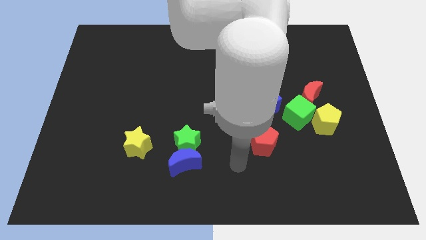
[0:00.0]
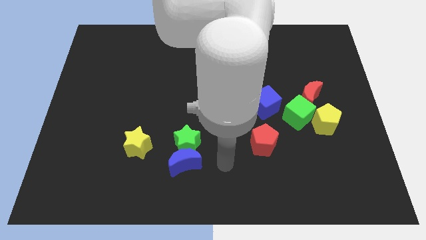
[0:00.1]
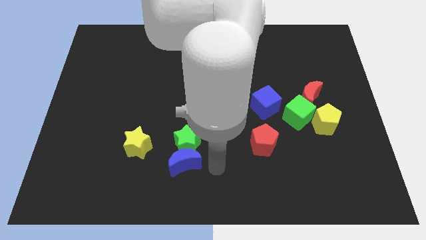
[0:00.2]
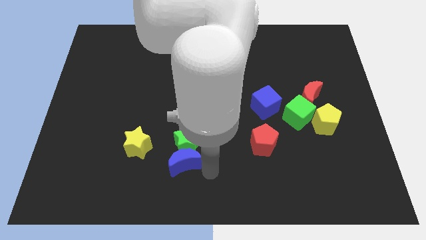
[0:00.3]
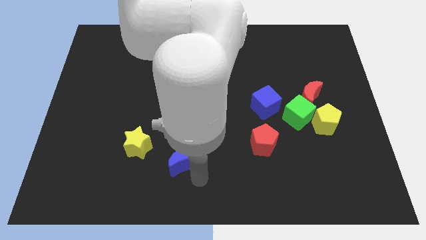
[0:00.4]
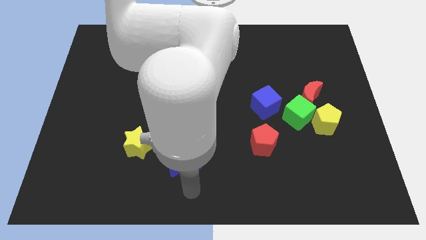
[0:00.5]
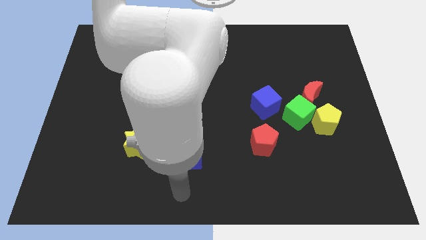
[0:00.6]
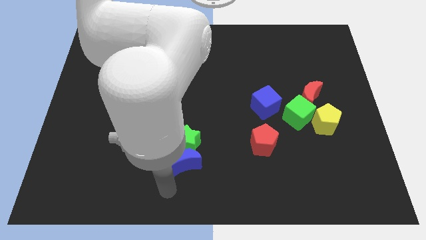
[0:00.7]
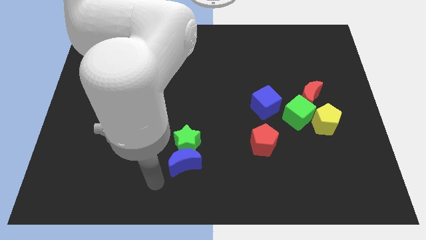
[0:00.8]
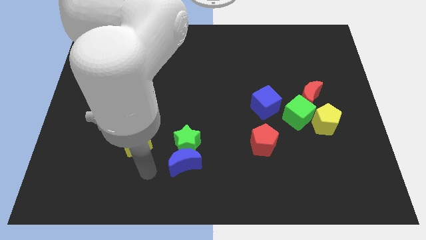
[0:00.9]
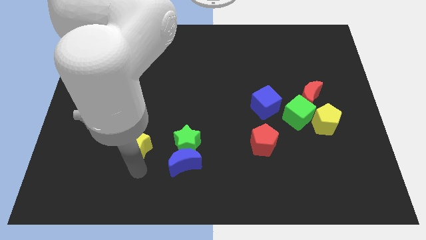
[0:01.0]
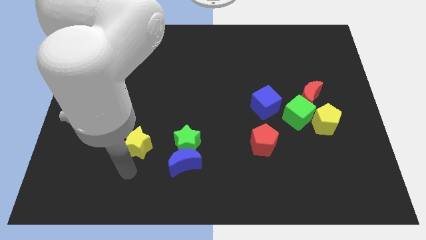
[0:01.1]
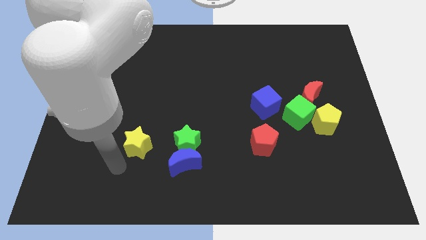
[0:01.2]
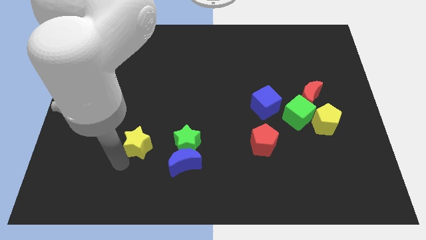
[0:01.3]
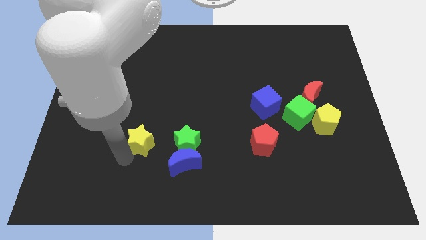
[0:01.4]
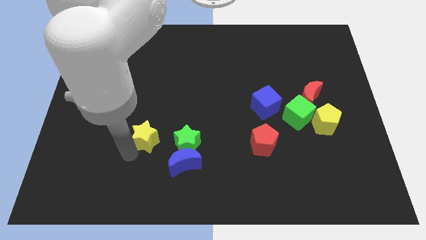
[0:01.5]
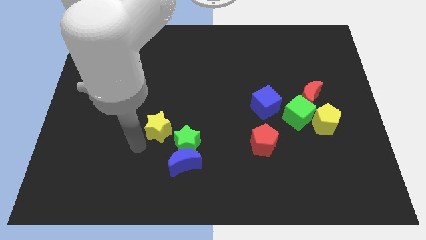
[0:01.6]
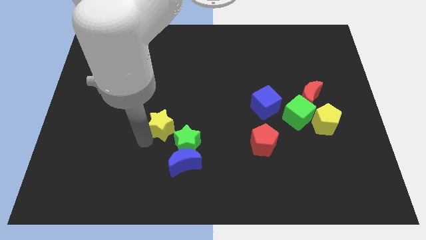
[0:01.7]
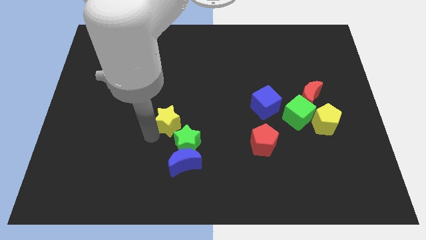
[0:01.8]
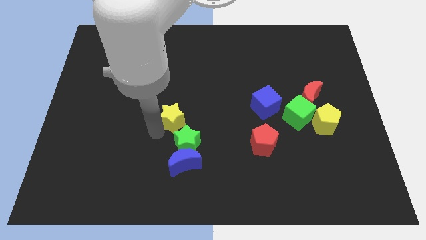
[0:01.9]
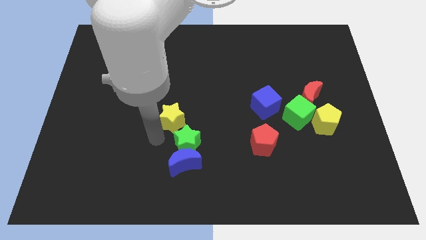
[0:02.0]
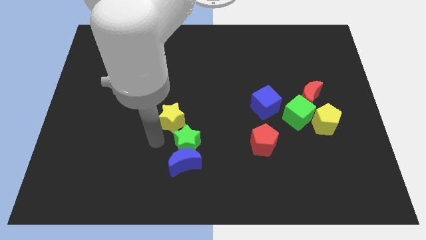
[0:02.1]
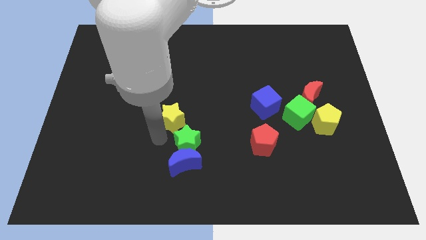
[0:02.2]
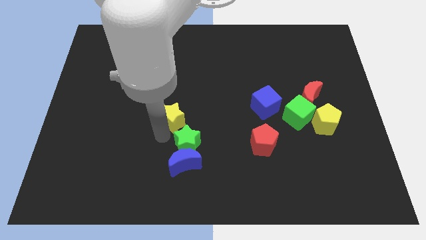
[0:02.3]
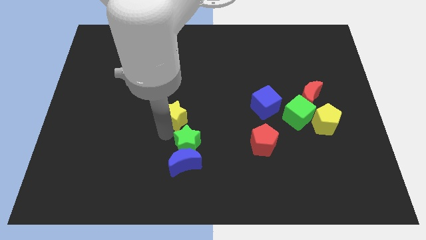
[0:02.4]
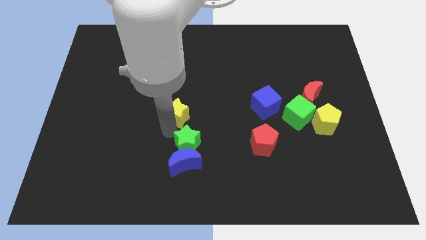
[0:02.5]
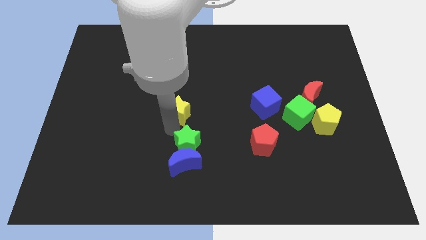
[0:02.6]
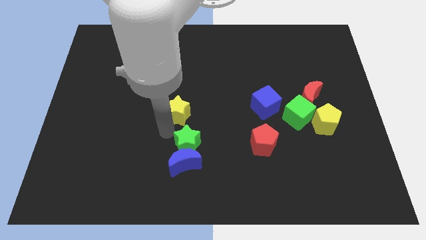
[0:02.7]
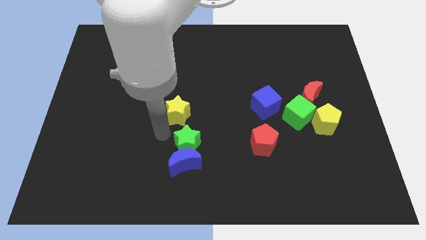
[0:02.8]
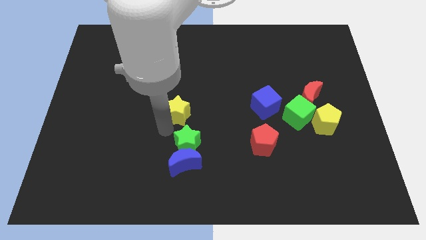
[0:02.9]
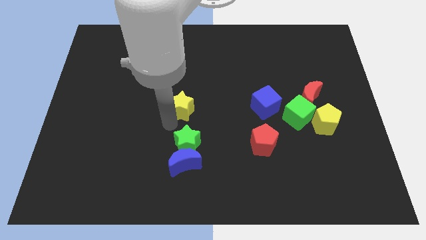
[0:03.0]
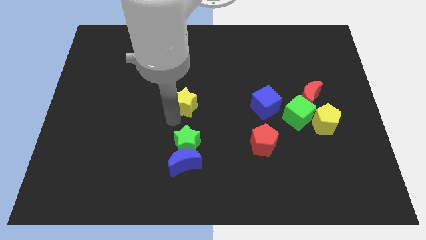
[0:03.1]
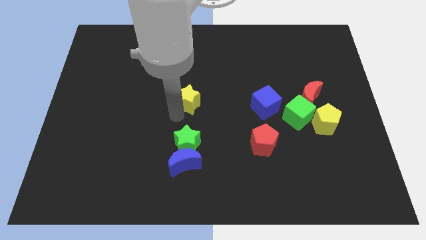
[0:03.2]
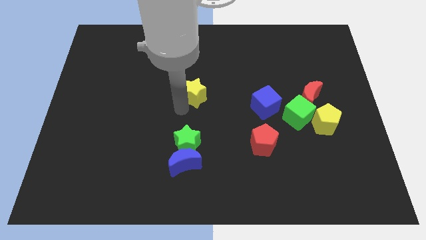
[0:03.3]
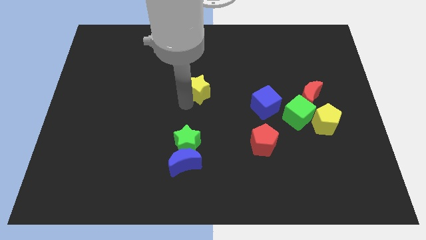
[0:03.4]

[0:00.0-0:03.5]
push the yellow star diagonally up and right

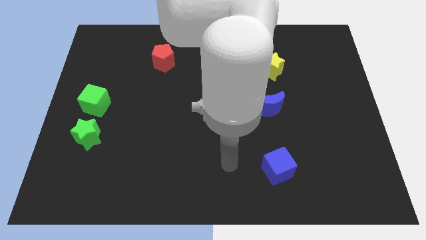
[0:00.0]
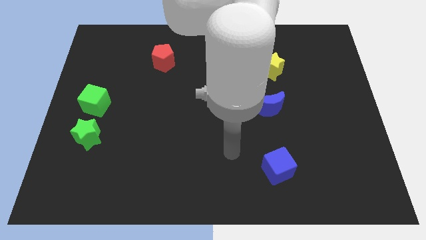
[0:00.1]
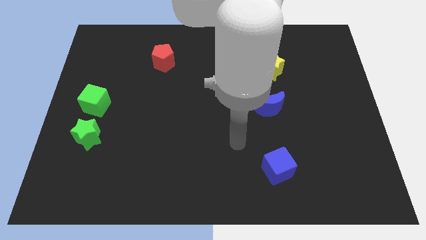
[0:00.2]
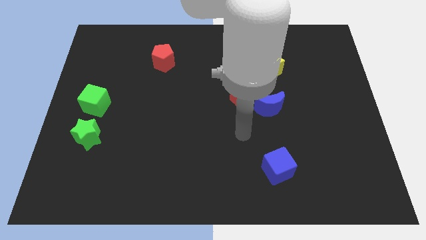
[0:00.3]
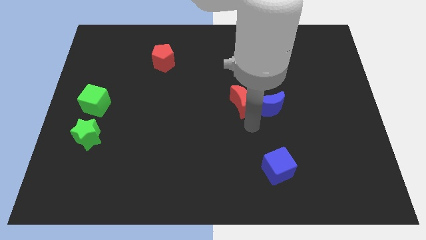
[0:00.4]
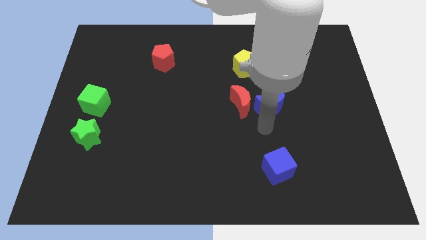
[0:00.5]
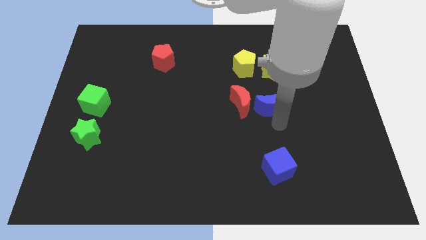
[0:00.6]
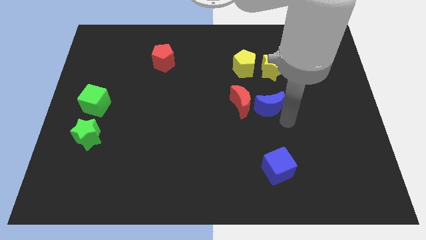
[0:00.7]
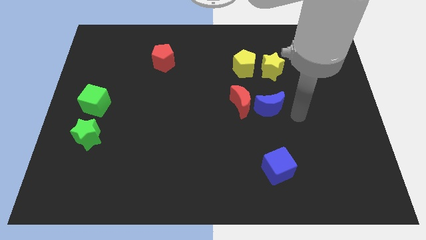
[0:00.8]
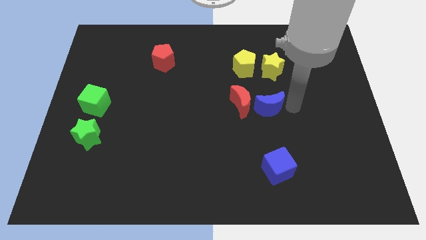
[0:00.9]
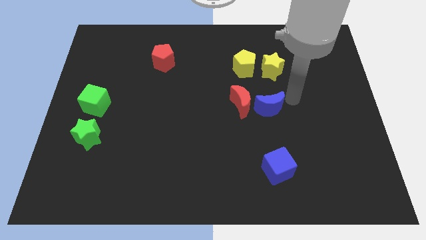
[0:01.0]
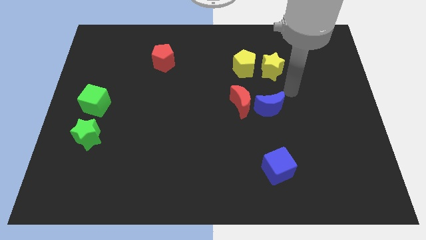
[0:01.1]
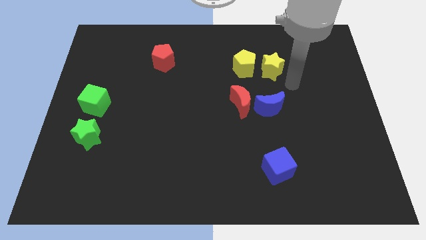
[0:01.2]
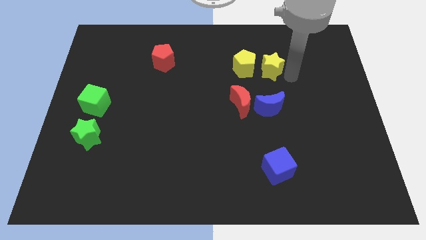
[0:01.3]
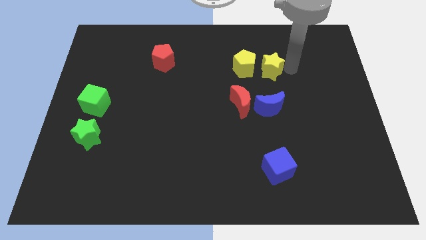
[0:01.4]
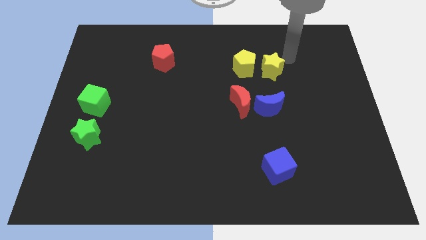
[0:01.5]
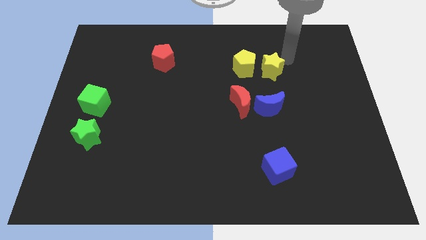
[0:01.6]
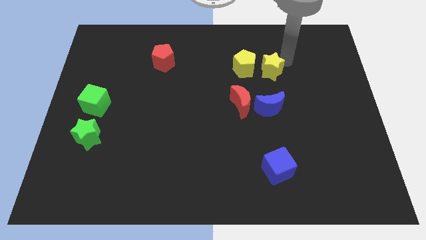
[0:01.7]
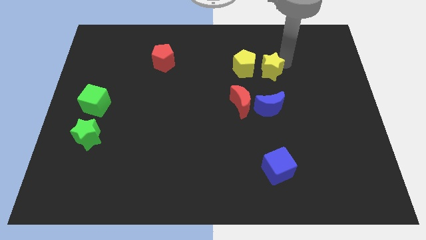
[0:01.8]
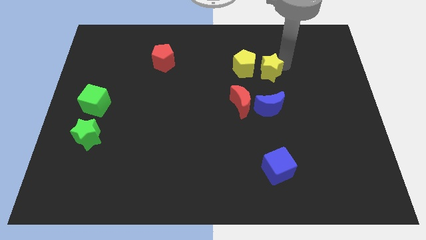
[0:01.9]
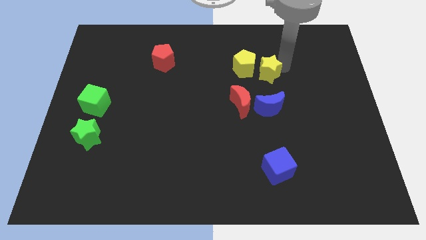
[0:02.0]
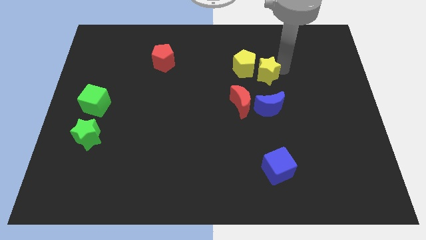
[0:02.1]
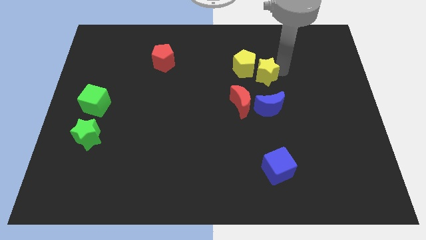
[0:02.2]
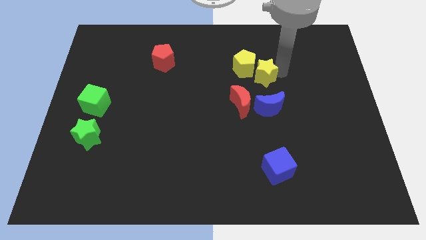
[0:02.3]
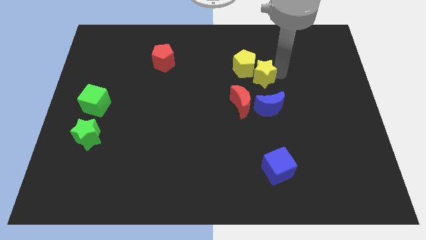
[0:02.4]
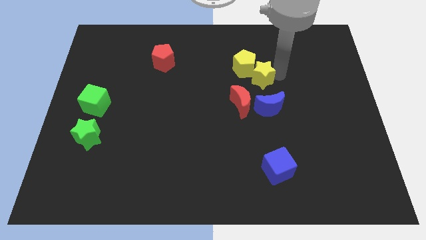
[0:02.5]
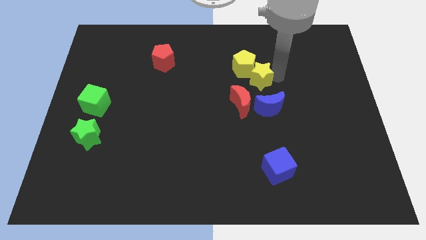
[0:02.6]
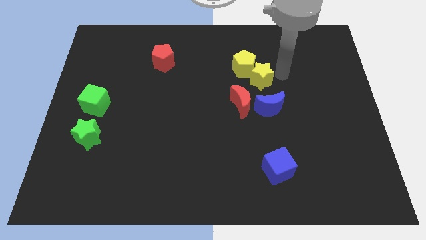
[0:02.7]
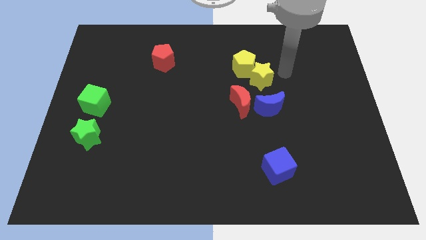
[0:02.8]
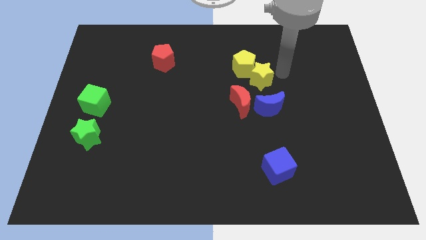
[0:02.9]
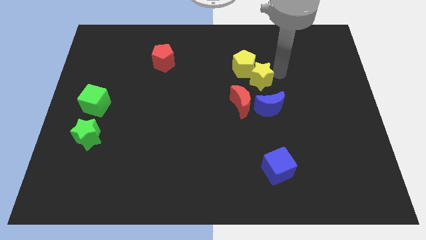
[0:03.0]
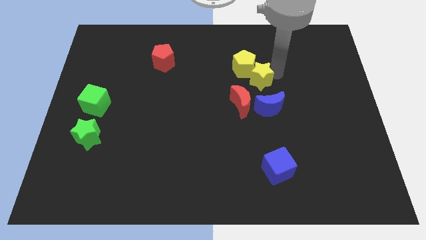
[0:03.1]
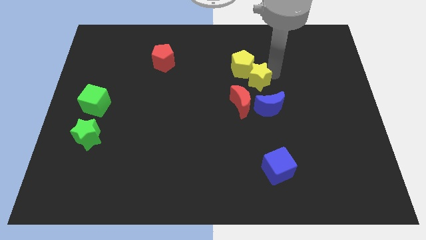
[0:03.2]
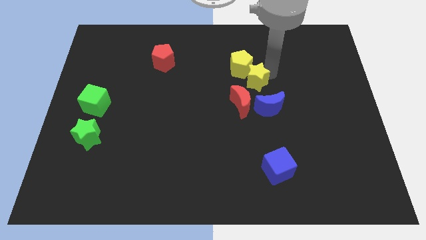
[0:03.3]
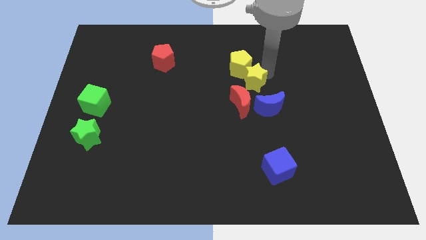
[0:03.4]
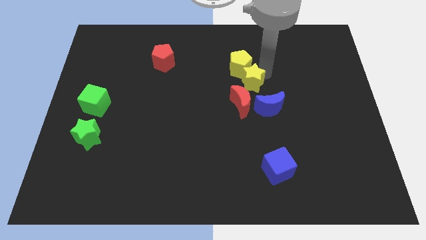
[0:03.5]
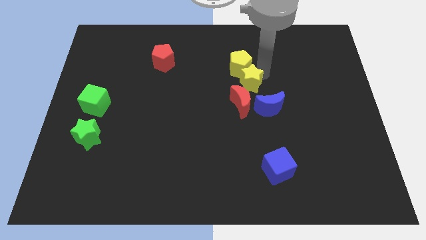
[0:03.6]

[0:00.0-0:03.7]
slightly push the yellow star downwards and then left

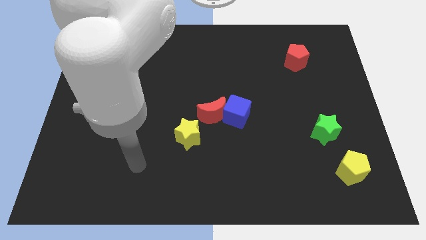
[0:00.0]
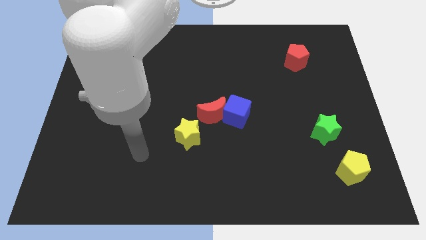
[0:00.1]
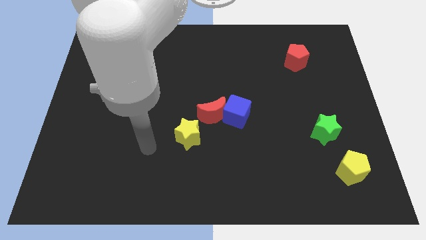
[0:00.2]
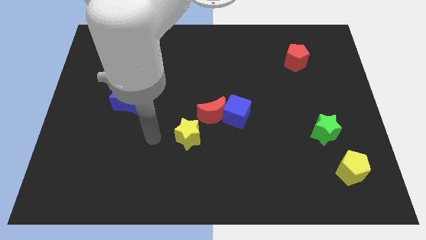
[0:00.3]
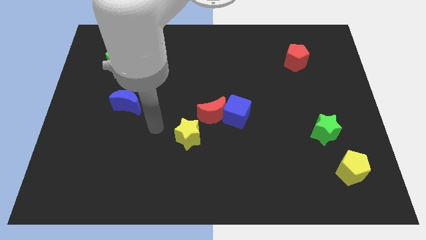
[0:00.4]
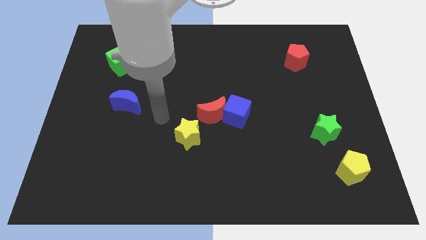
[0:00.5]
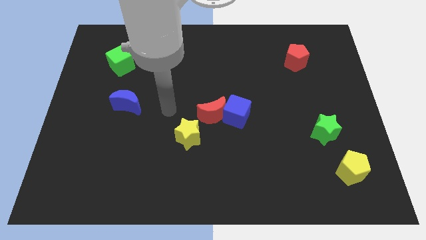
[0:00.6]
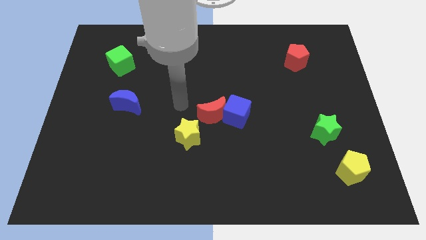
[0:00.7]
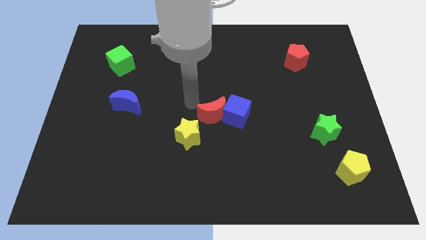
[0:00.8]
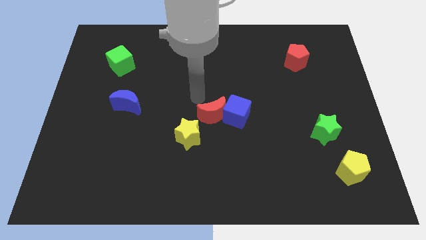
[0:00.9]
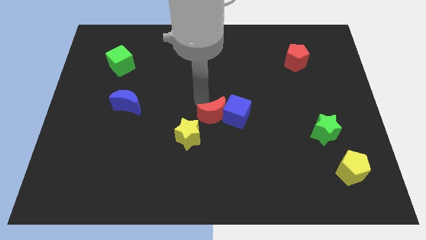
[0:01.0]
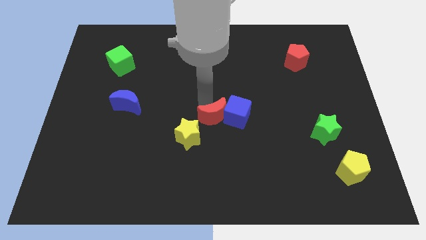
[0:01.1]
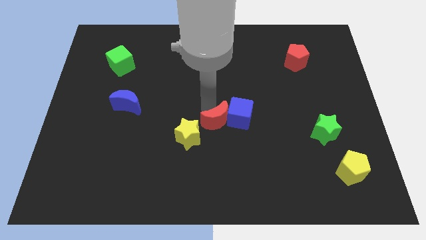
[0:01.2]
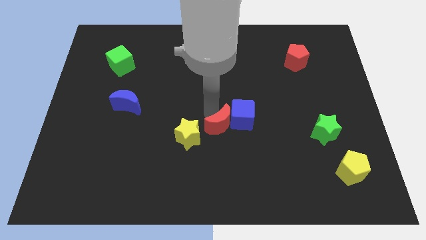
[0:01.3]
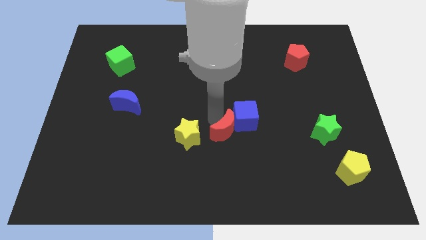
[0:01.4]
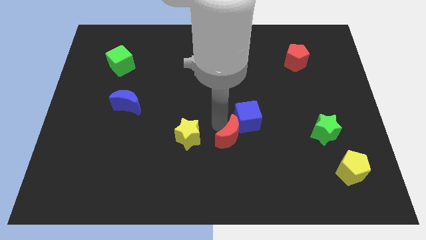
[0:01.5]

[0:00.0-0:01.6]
move the red moon downwards and then right a little
